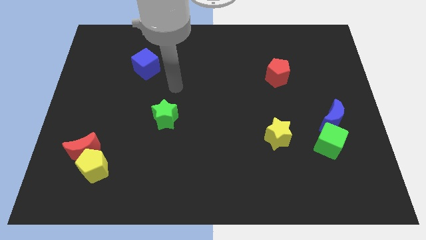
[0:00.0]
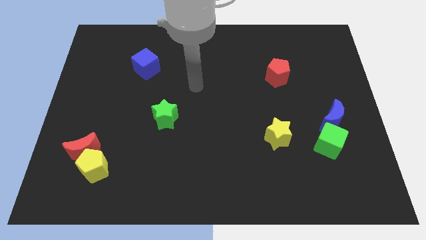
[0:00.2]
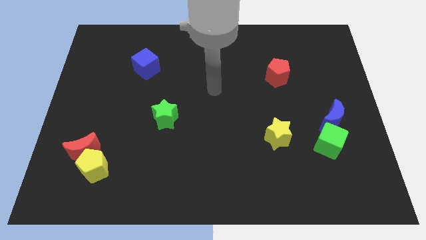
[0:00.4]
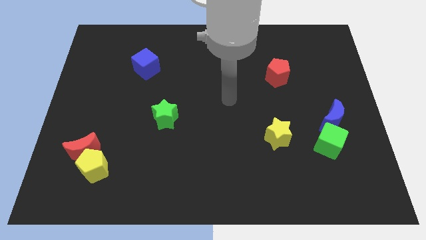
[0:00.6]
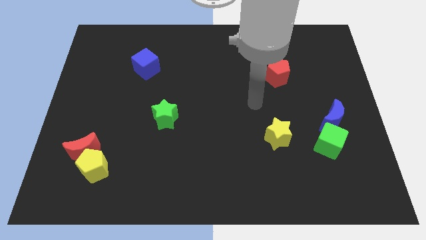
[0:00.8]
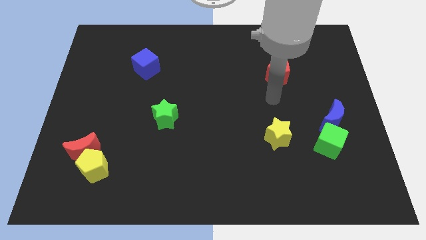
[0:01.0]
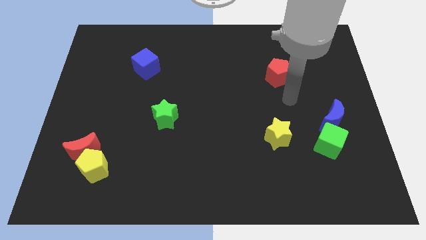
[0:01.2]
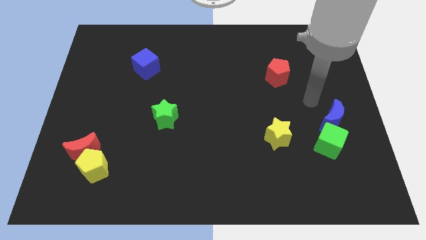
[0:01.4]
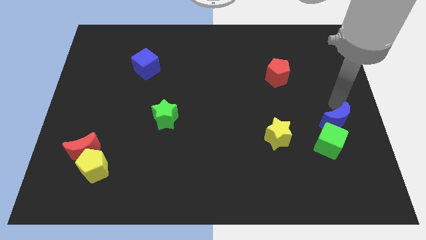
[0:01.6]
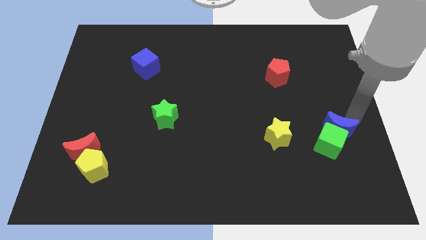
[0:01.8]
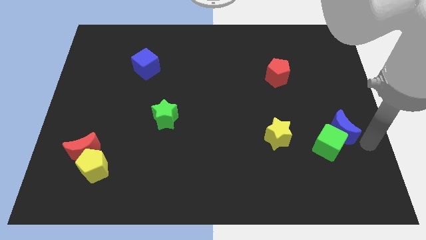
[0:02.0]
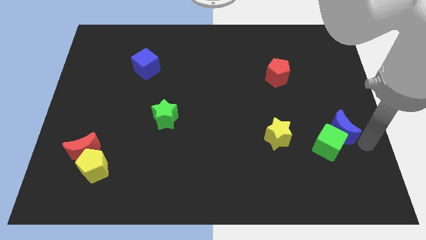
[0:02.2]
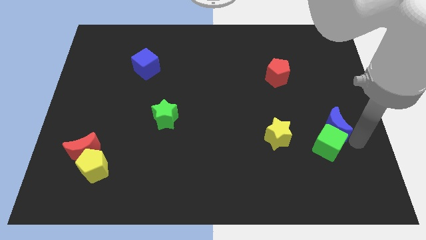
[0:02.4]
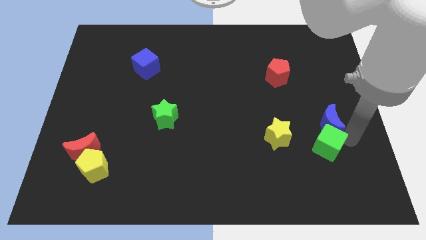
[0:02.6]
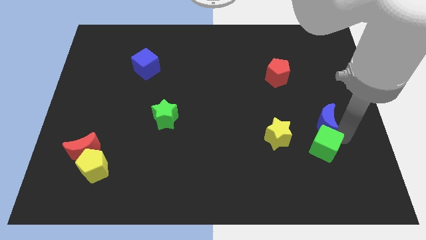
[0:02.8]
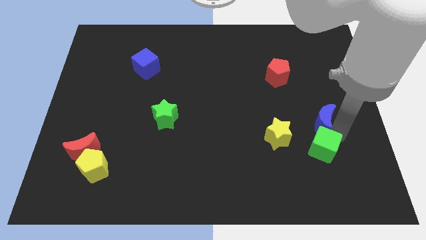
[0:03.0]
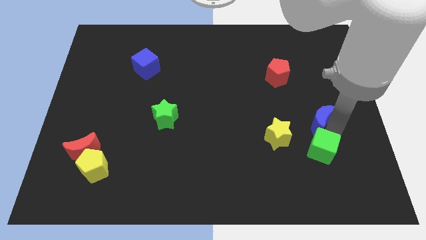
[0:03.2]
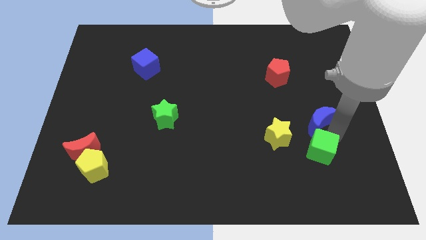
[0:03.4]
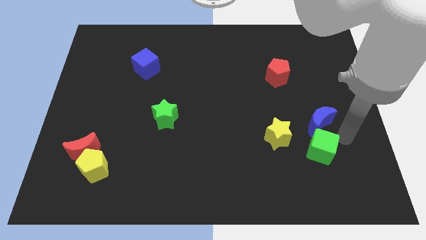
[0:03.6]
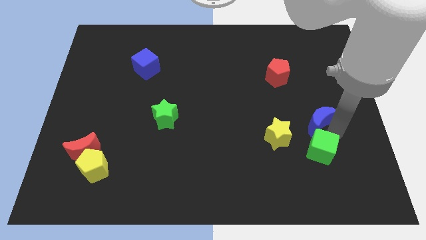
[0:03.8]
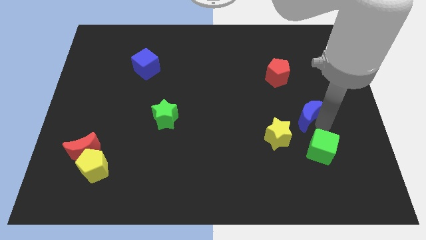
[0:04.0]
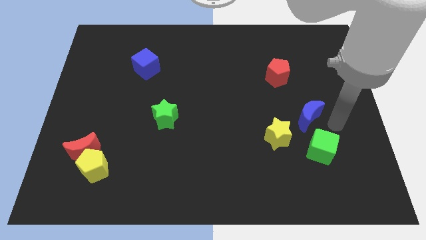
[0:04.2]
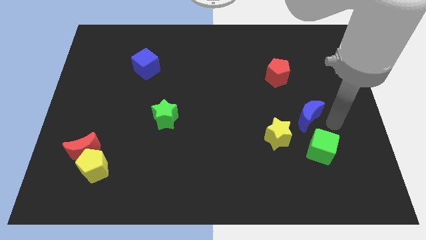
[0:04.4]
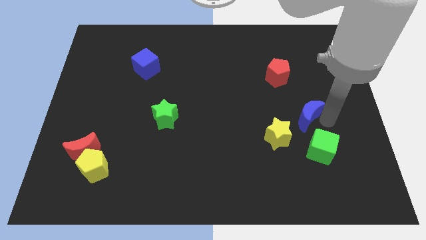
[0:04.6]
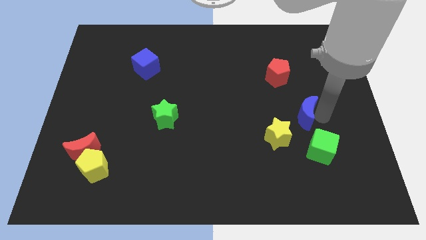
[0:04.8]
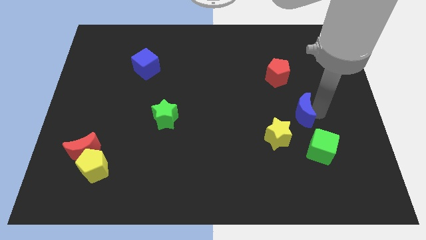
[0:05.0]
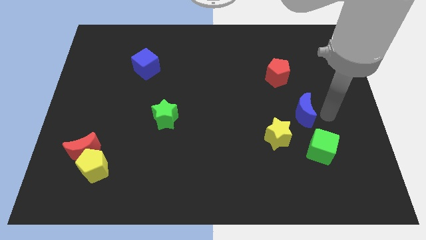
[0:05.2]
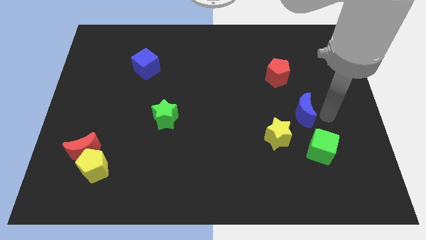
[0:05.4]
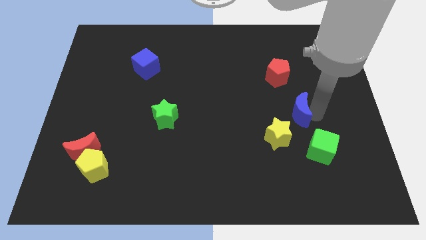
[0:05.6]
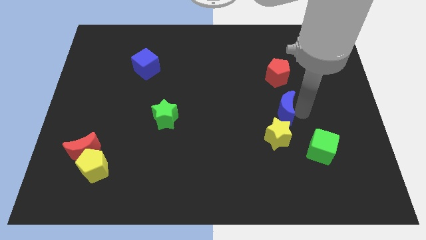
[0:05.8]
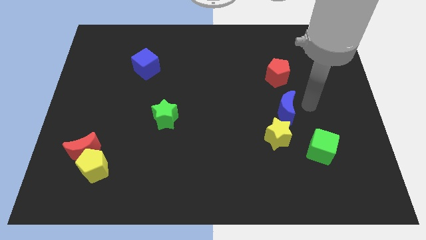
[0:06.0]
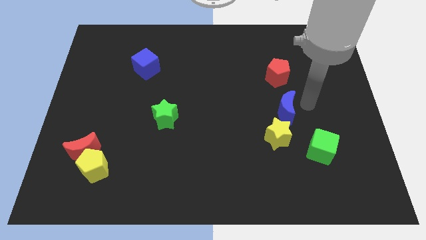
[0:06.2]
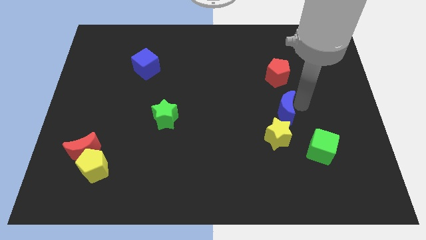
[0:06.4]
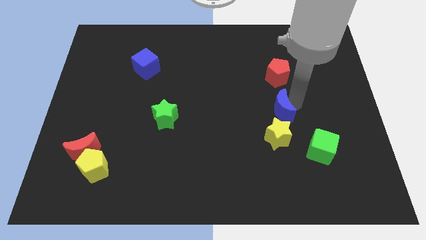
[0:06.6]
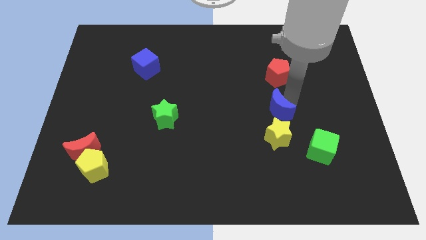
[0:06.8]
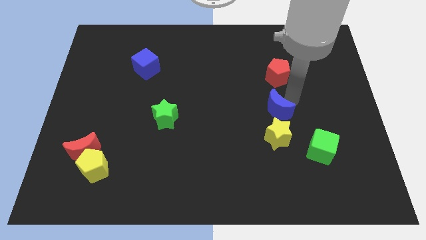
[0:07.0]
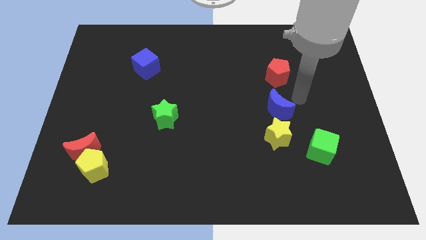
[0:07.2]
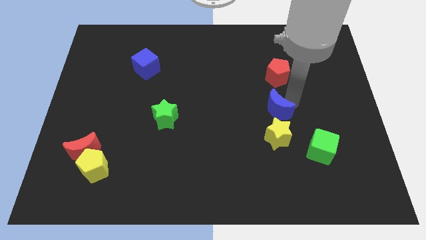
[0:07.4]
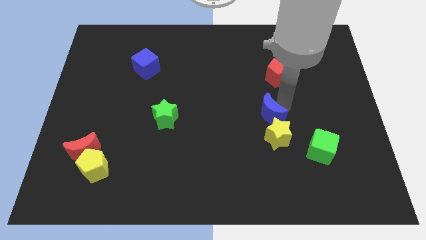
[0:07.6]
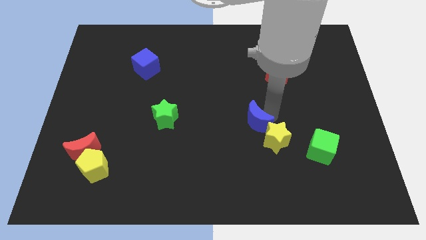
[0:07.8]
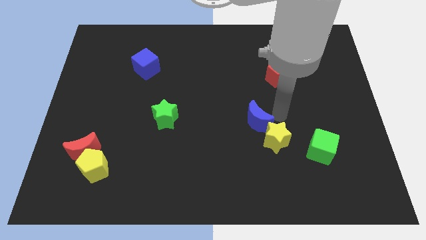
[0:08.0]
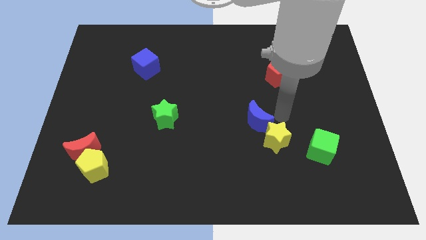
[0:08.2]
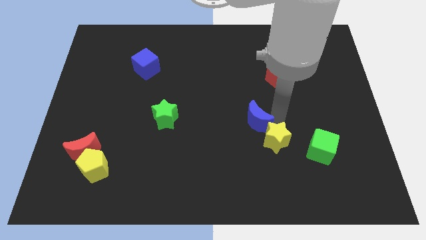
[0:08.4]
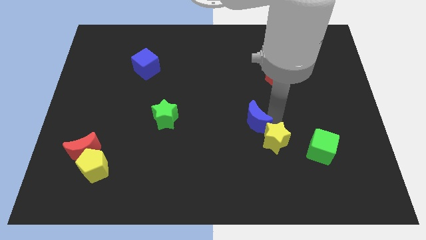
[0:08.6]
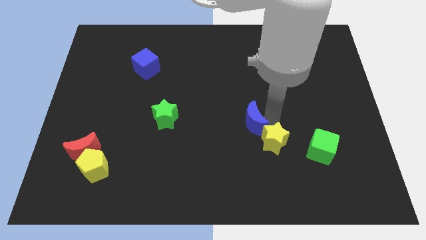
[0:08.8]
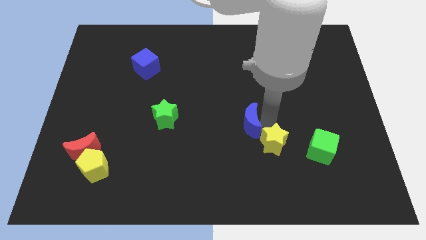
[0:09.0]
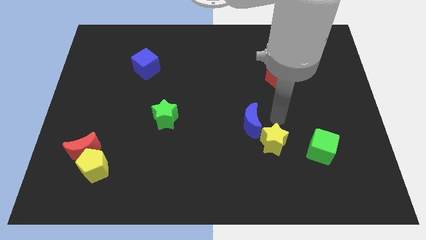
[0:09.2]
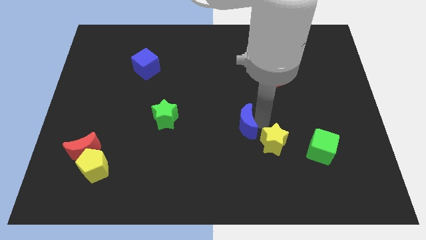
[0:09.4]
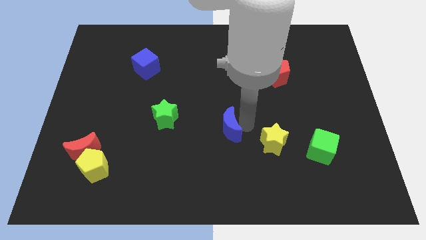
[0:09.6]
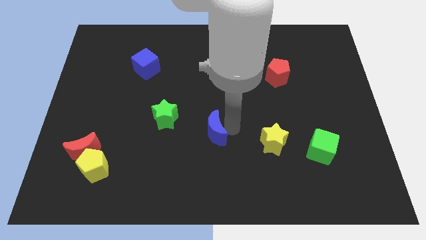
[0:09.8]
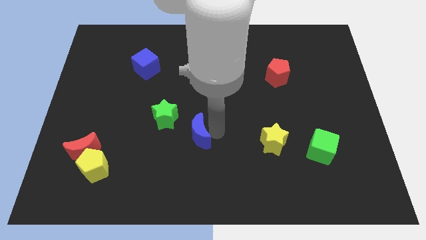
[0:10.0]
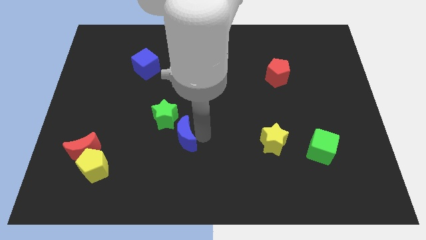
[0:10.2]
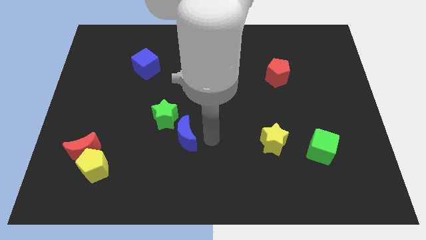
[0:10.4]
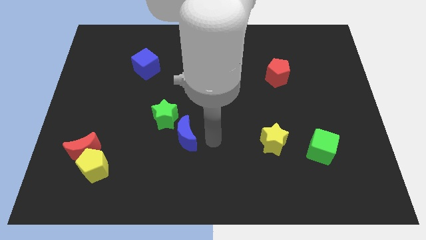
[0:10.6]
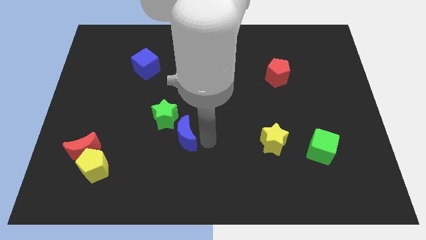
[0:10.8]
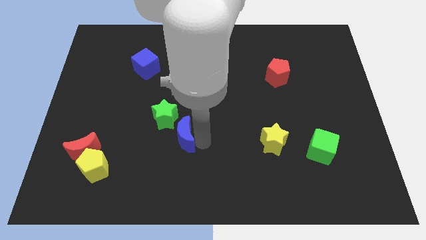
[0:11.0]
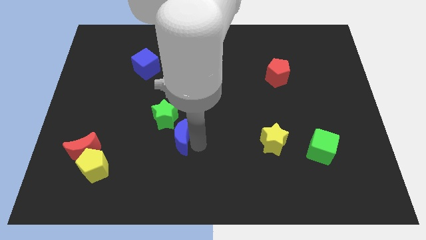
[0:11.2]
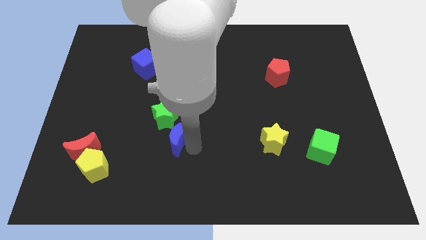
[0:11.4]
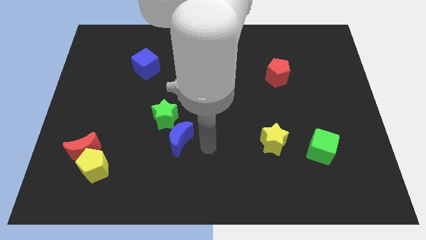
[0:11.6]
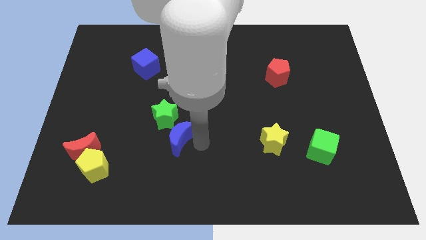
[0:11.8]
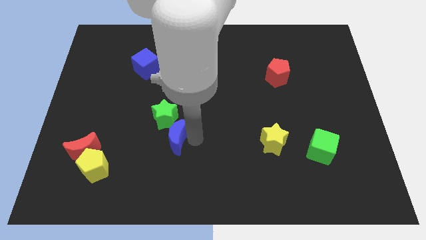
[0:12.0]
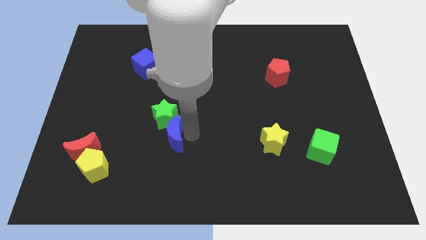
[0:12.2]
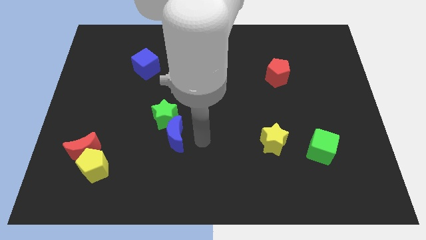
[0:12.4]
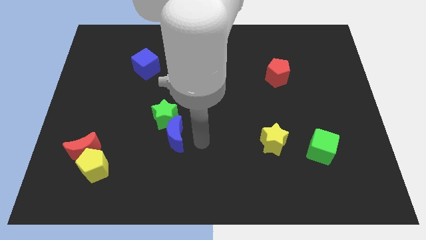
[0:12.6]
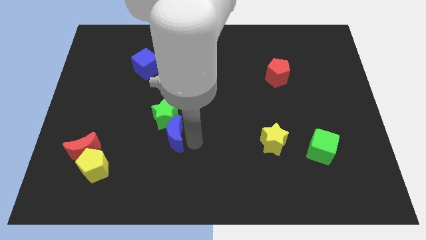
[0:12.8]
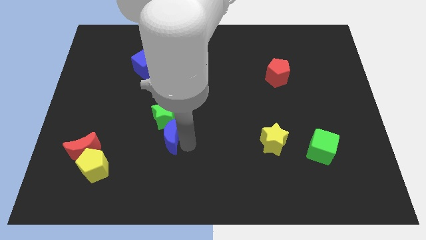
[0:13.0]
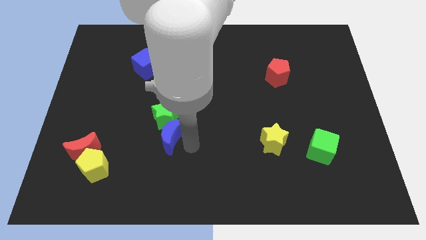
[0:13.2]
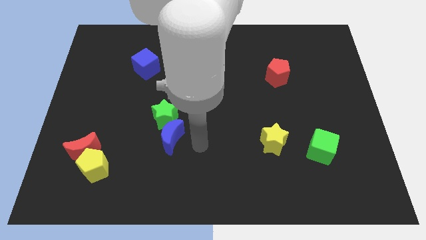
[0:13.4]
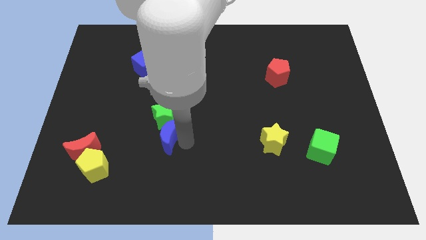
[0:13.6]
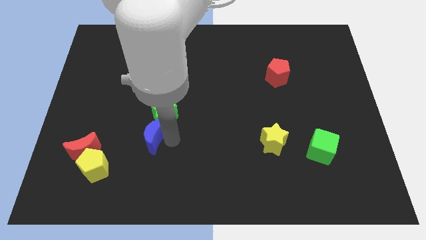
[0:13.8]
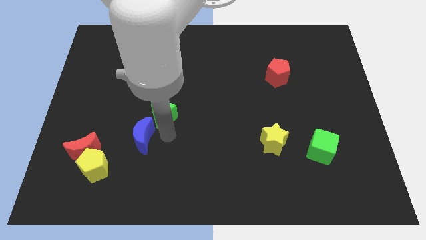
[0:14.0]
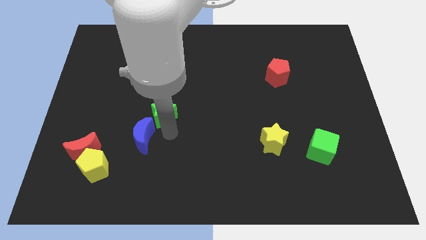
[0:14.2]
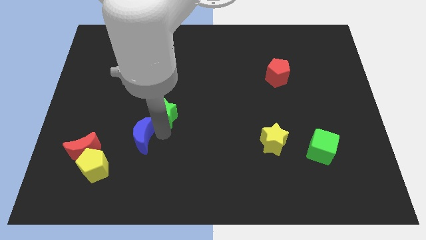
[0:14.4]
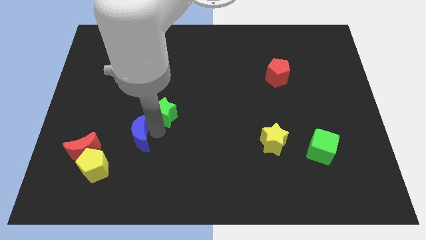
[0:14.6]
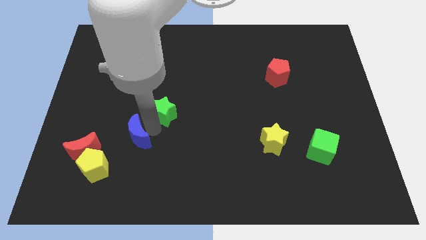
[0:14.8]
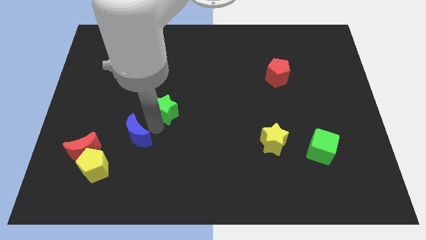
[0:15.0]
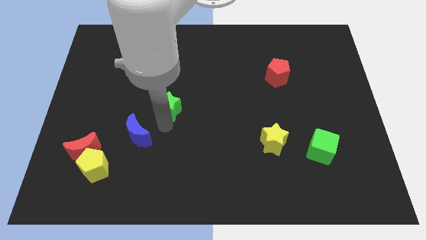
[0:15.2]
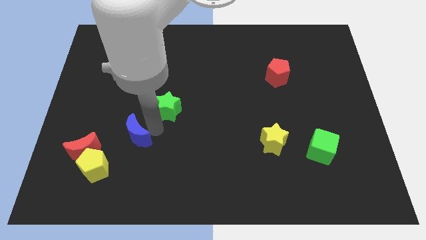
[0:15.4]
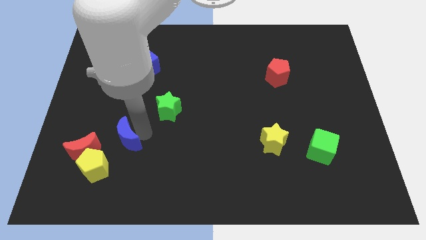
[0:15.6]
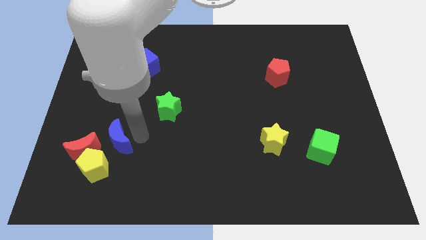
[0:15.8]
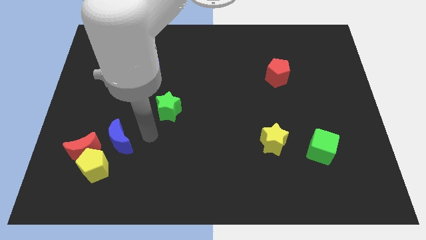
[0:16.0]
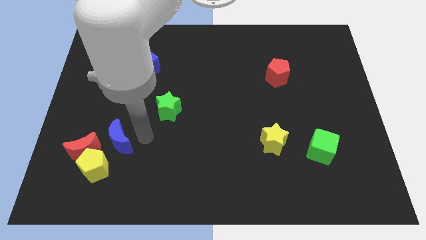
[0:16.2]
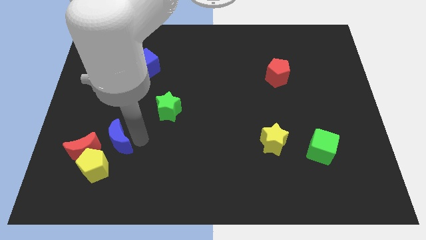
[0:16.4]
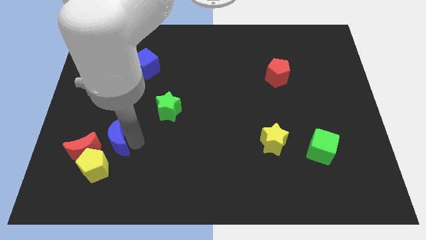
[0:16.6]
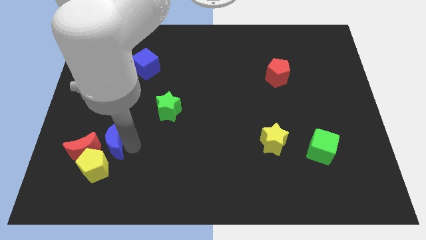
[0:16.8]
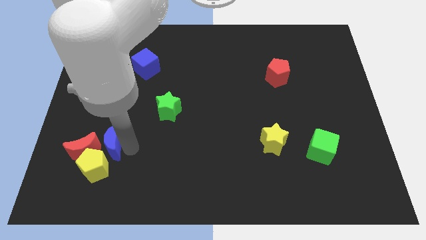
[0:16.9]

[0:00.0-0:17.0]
put the blue moon next to the red moon
